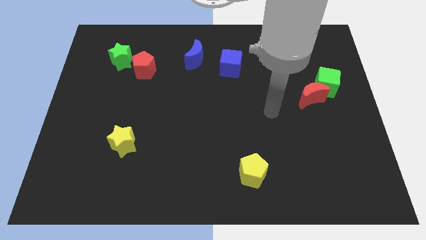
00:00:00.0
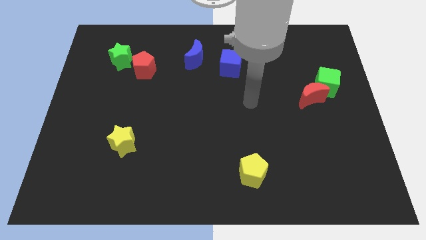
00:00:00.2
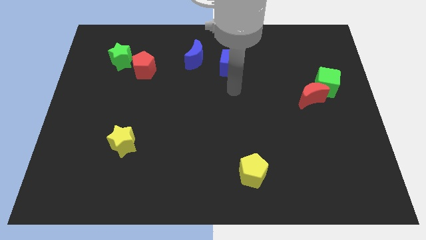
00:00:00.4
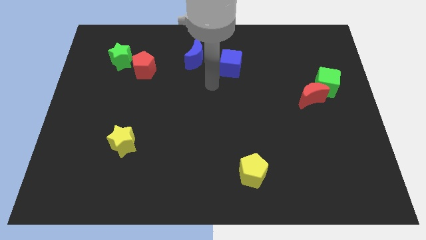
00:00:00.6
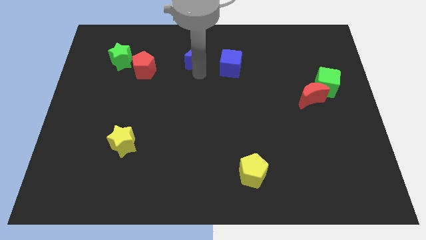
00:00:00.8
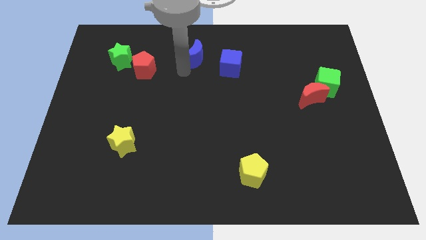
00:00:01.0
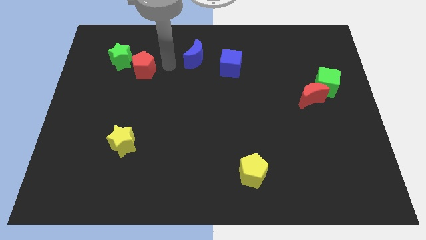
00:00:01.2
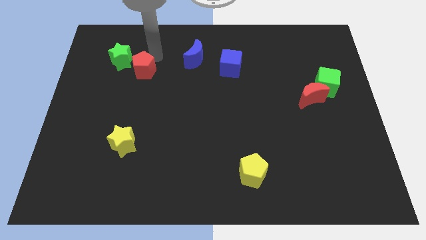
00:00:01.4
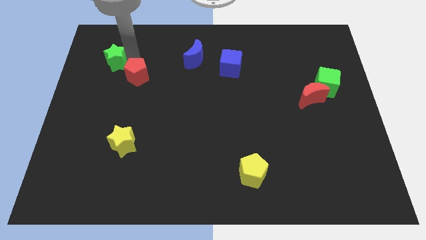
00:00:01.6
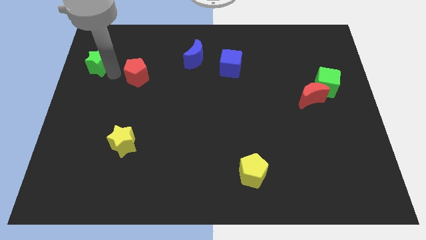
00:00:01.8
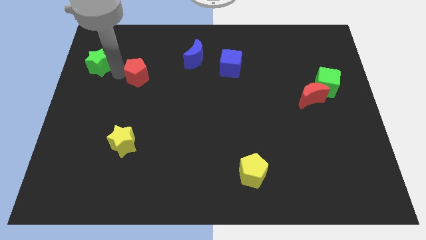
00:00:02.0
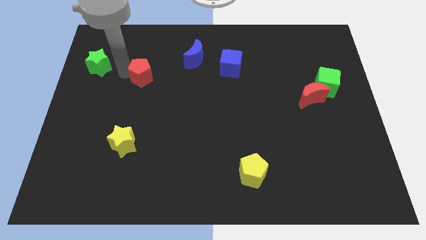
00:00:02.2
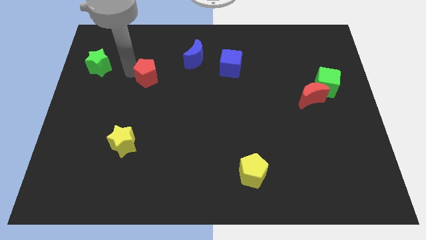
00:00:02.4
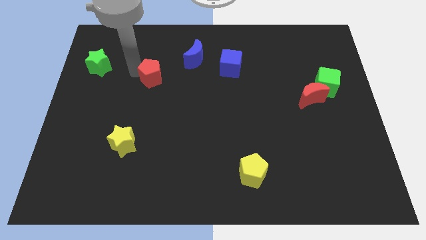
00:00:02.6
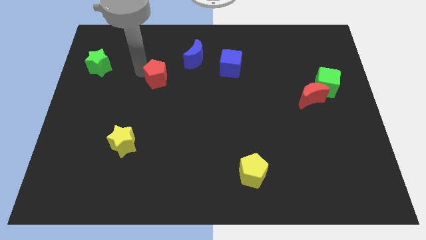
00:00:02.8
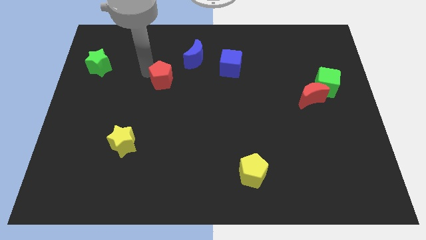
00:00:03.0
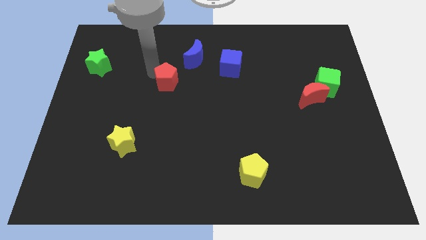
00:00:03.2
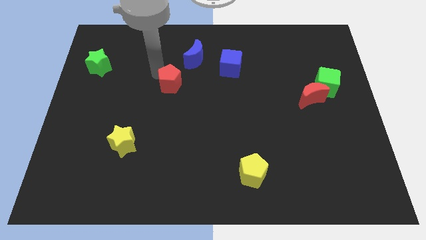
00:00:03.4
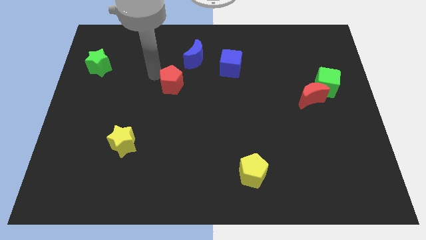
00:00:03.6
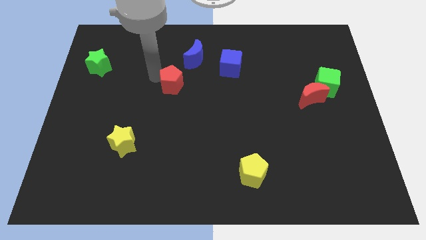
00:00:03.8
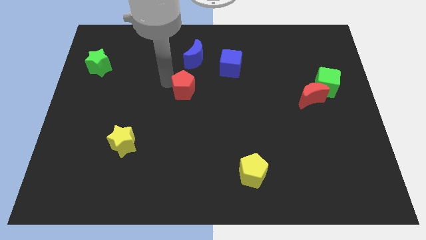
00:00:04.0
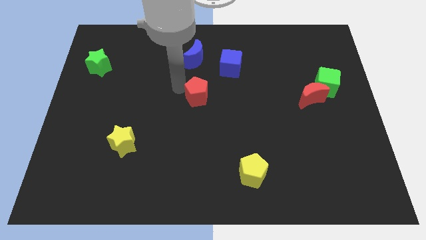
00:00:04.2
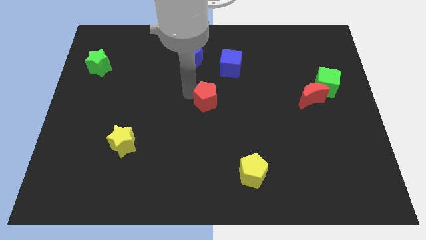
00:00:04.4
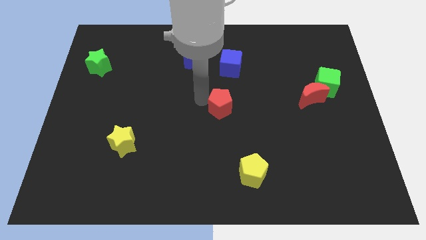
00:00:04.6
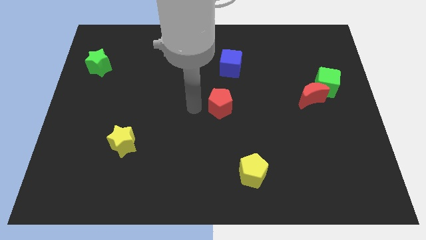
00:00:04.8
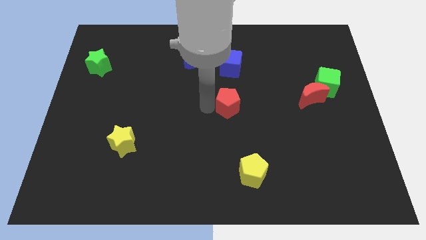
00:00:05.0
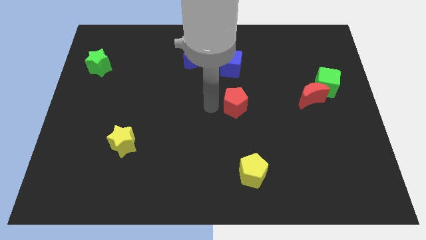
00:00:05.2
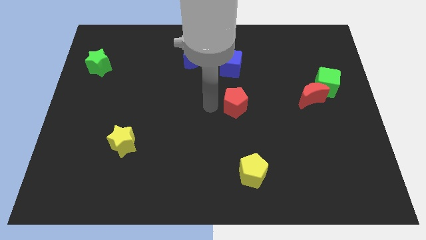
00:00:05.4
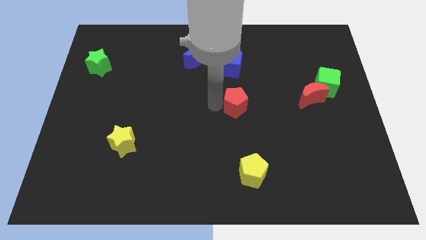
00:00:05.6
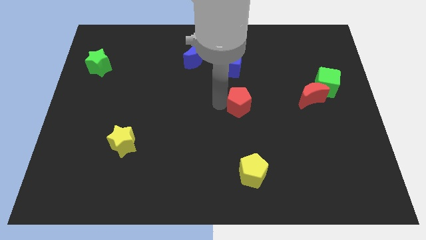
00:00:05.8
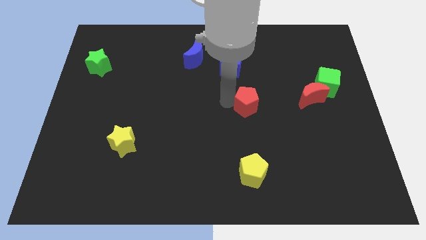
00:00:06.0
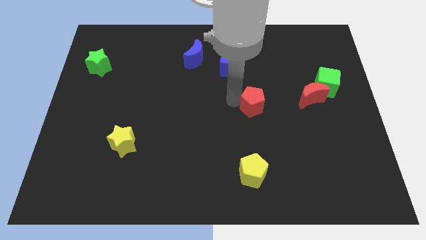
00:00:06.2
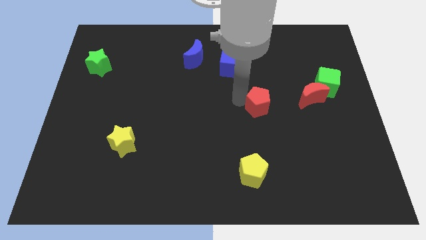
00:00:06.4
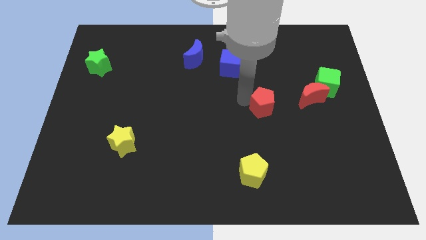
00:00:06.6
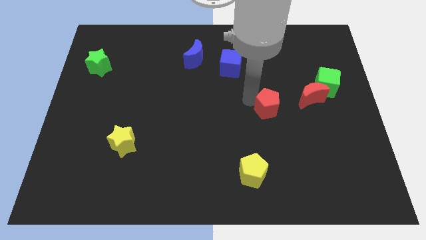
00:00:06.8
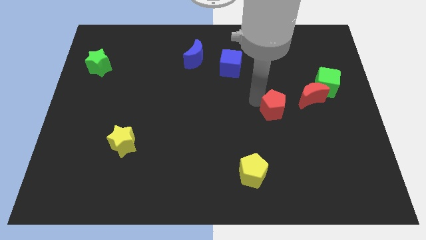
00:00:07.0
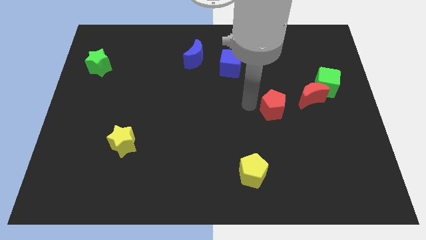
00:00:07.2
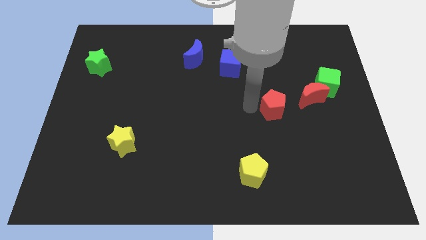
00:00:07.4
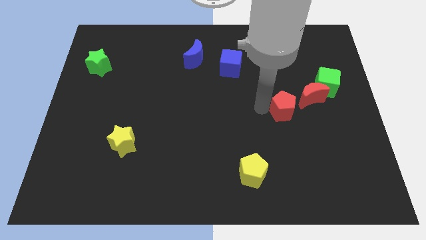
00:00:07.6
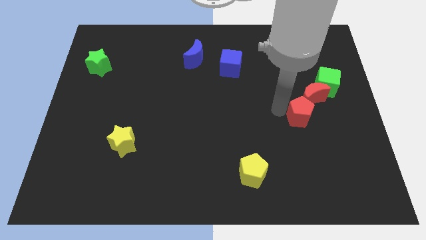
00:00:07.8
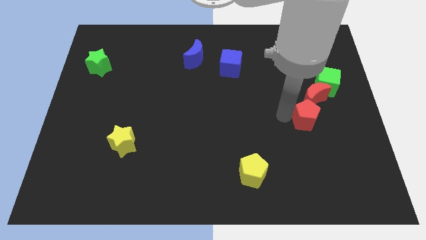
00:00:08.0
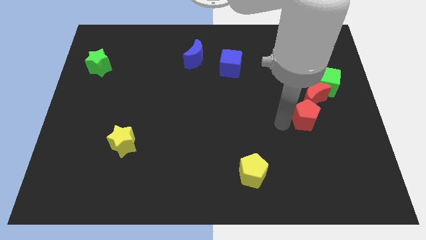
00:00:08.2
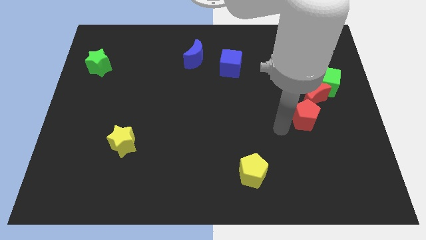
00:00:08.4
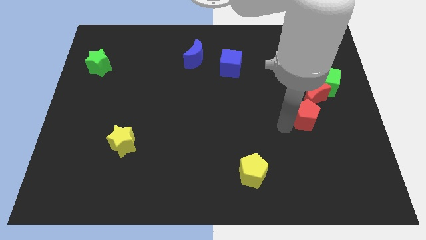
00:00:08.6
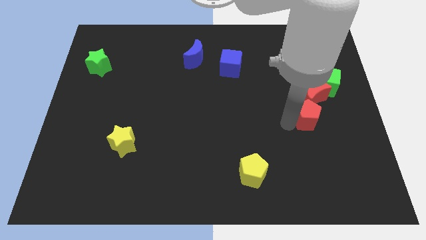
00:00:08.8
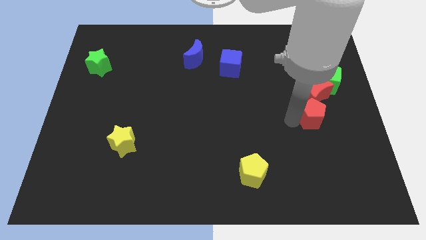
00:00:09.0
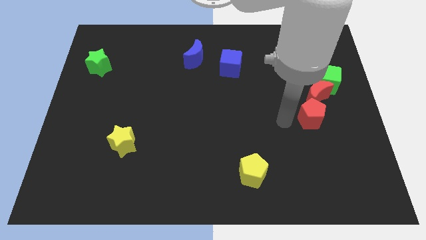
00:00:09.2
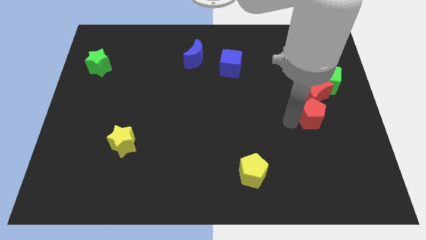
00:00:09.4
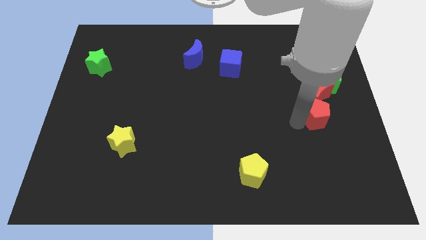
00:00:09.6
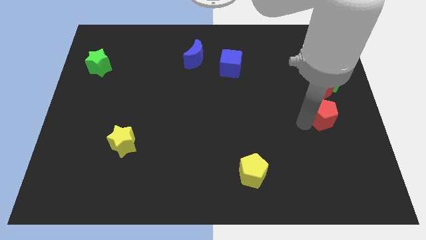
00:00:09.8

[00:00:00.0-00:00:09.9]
push the red pentagon to the bottom right side of the red moon

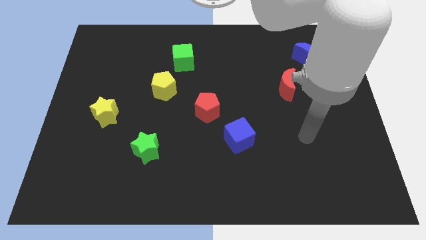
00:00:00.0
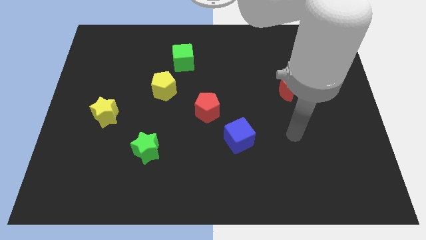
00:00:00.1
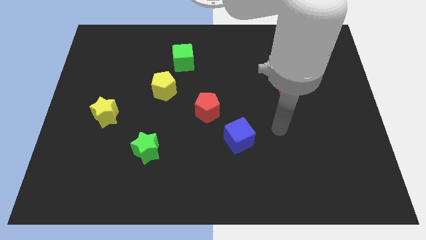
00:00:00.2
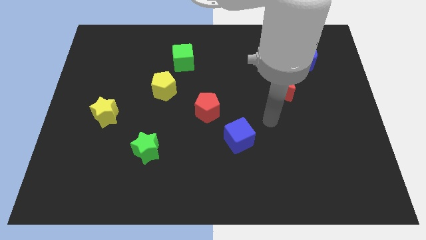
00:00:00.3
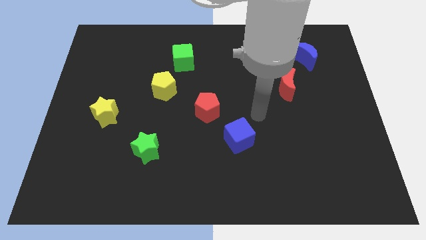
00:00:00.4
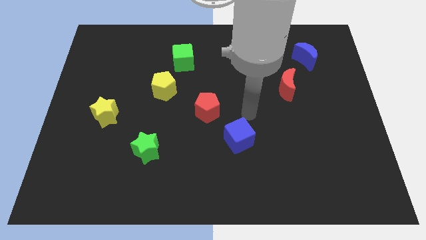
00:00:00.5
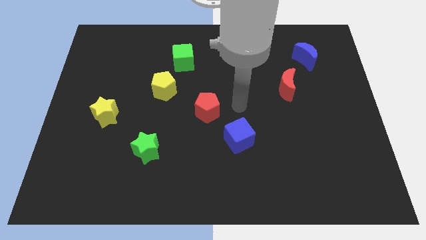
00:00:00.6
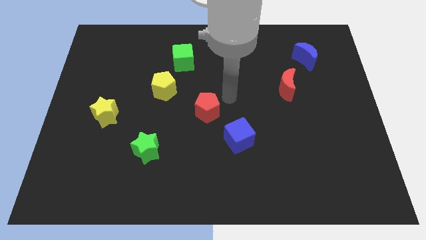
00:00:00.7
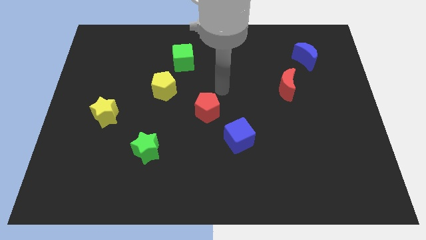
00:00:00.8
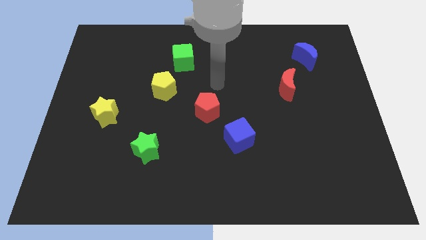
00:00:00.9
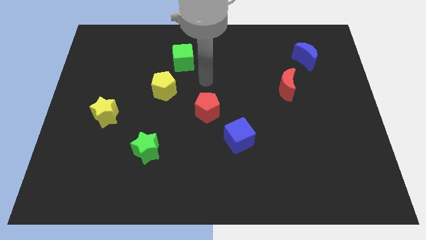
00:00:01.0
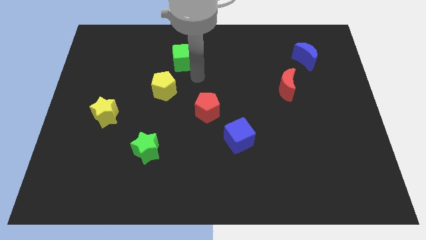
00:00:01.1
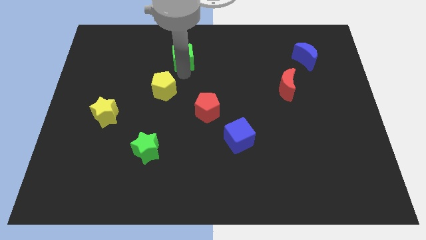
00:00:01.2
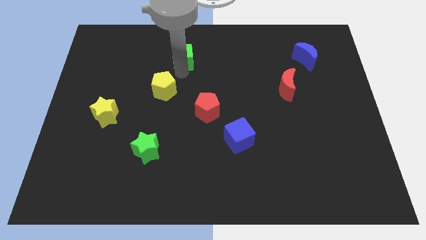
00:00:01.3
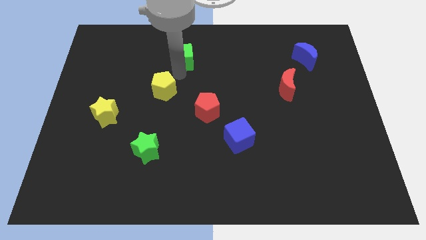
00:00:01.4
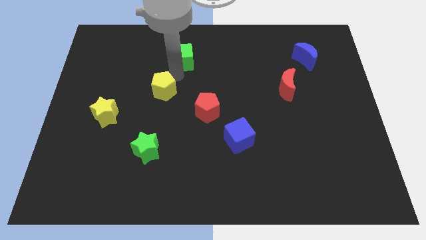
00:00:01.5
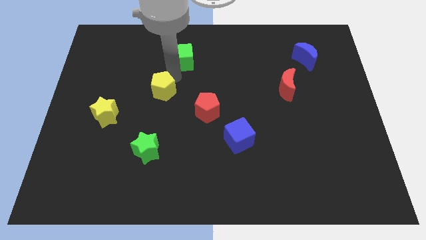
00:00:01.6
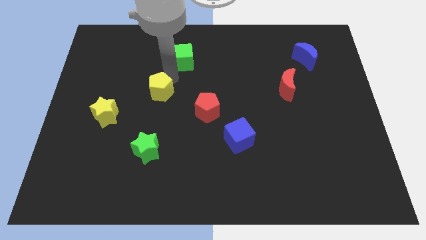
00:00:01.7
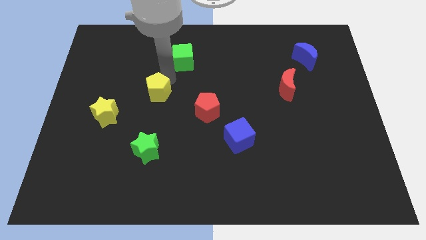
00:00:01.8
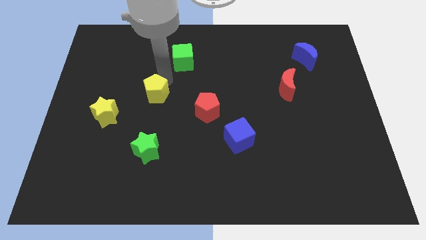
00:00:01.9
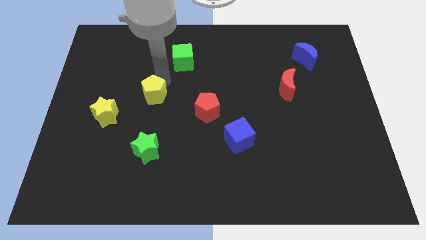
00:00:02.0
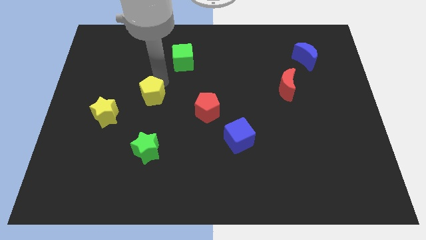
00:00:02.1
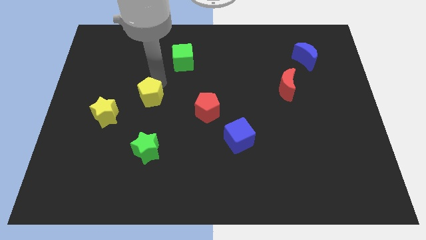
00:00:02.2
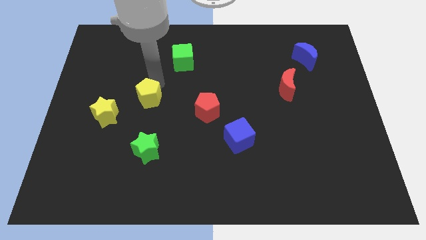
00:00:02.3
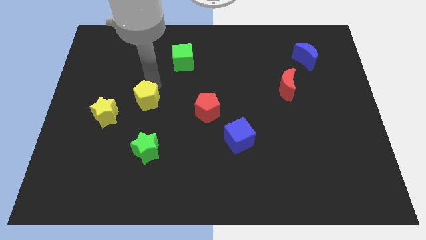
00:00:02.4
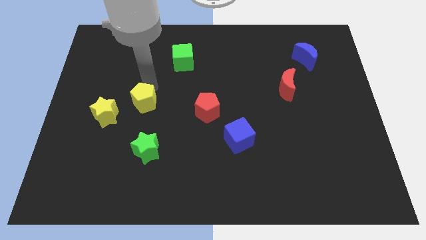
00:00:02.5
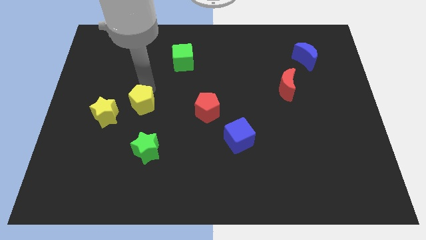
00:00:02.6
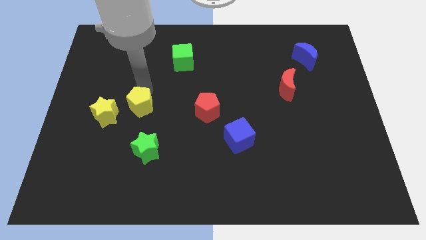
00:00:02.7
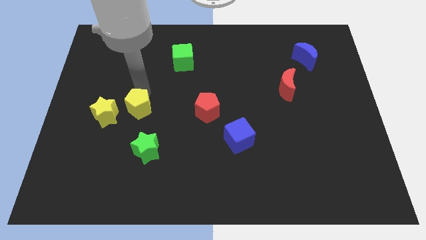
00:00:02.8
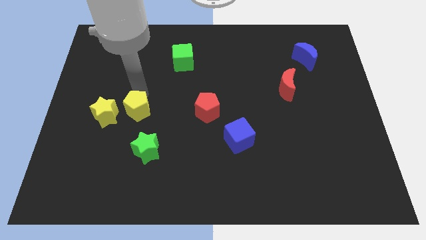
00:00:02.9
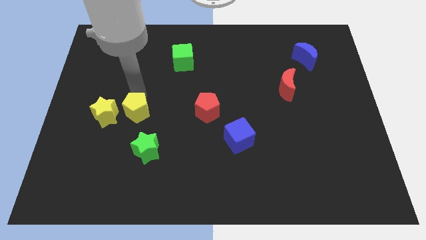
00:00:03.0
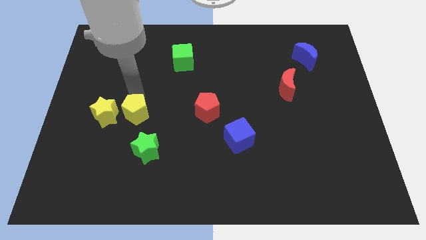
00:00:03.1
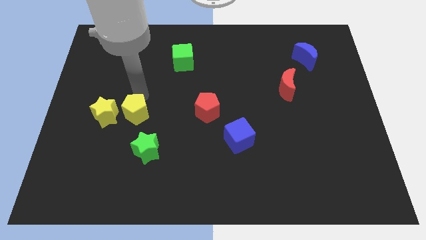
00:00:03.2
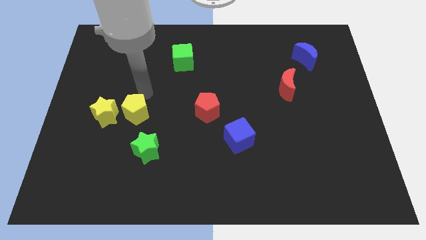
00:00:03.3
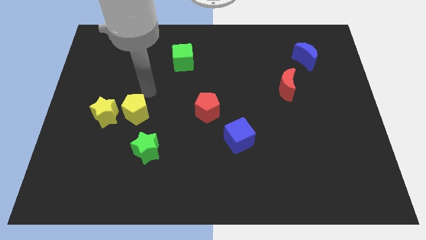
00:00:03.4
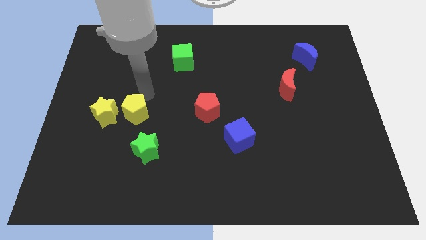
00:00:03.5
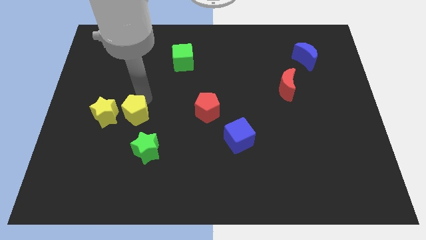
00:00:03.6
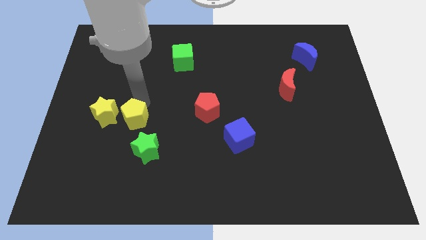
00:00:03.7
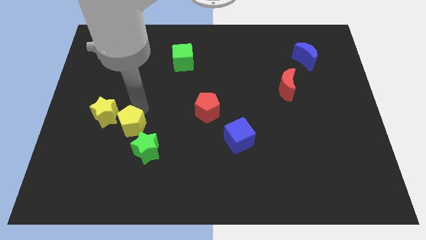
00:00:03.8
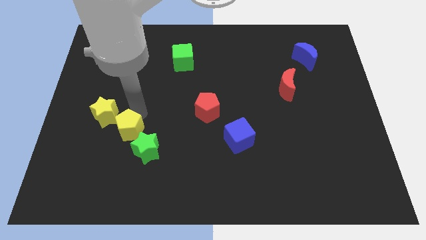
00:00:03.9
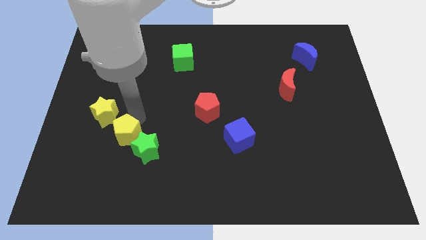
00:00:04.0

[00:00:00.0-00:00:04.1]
move the yellow pentagon left of the green star
